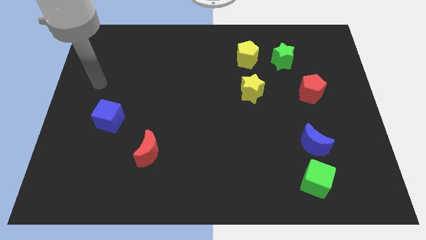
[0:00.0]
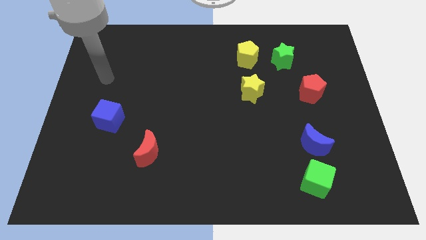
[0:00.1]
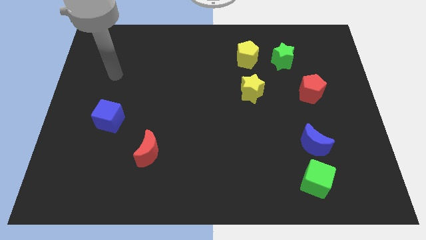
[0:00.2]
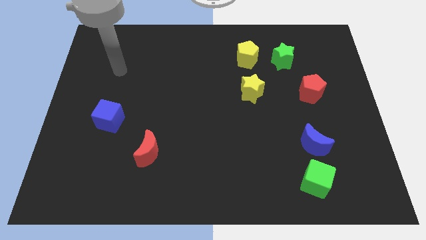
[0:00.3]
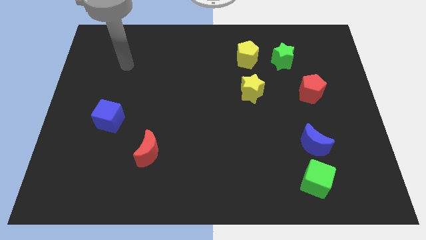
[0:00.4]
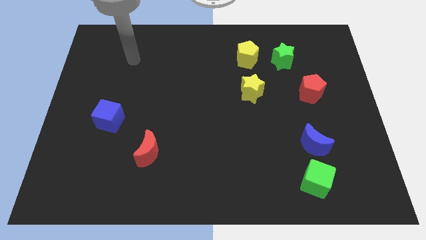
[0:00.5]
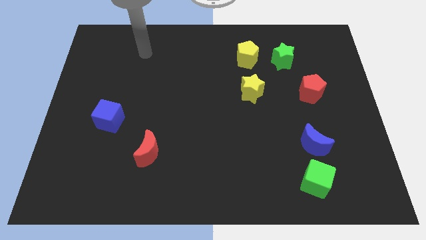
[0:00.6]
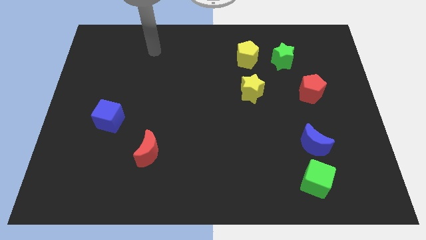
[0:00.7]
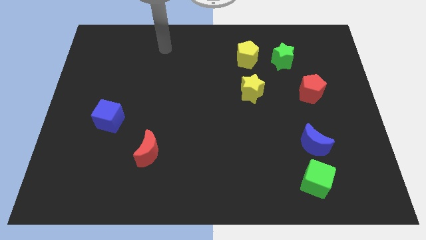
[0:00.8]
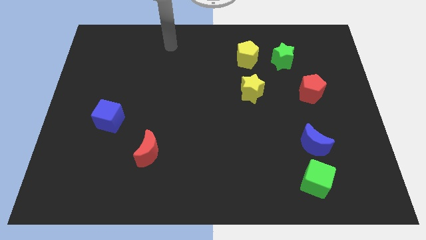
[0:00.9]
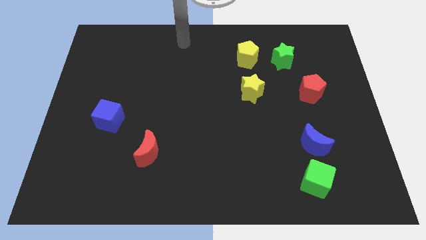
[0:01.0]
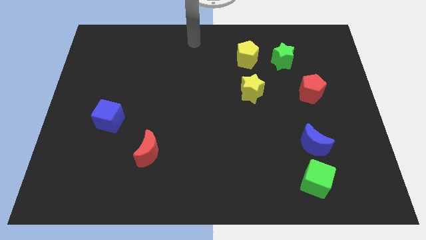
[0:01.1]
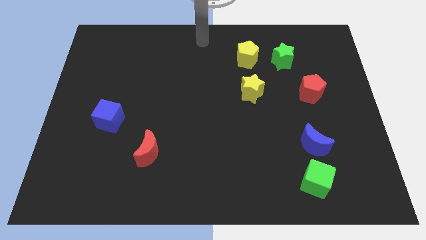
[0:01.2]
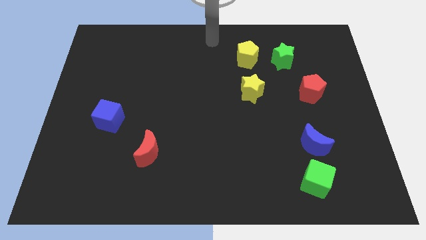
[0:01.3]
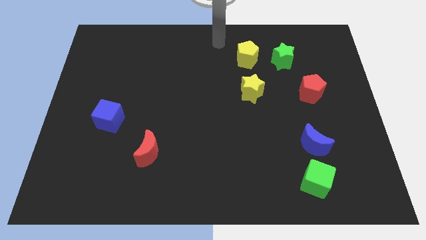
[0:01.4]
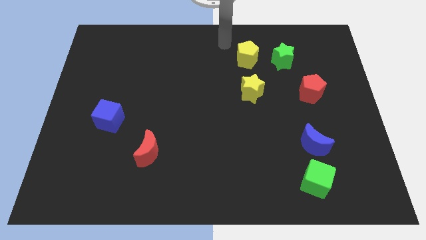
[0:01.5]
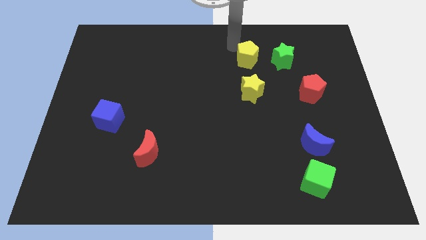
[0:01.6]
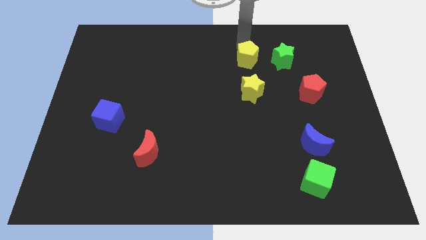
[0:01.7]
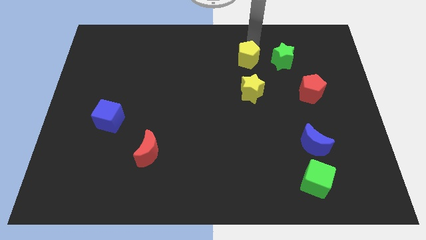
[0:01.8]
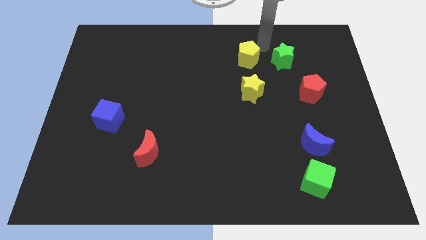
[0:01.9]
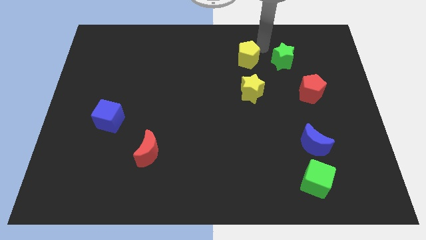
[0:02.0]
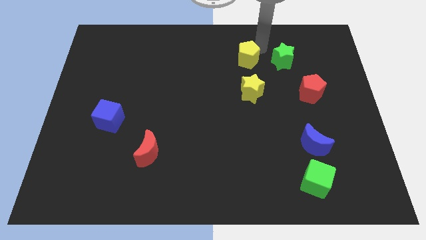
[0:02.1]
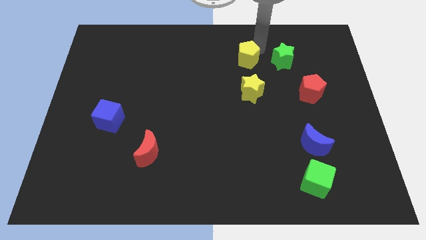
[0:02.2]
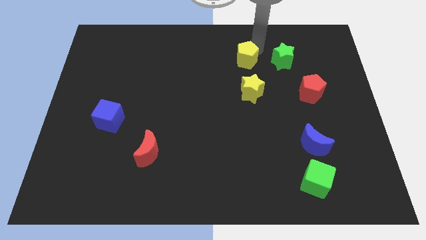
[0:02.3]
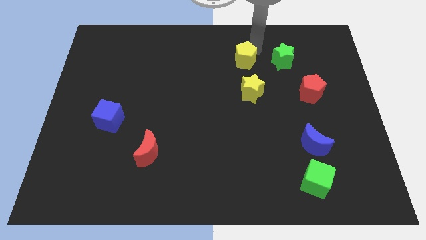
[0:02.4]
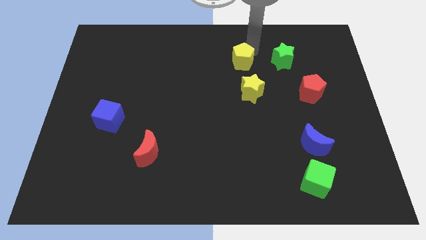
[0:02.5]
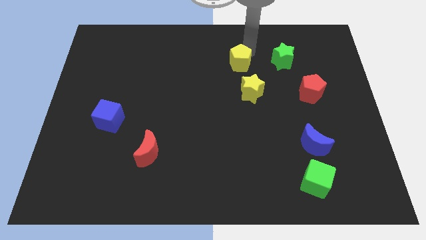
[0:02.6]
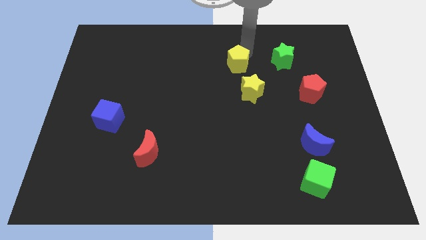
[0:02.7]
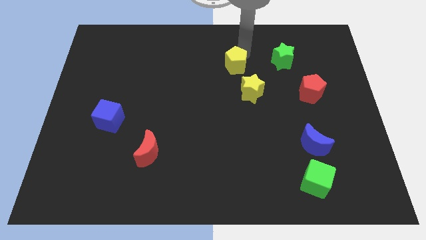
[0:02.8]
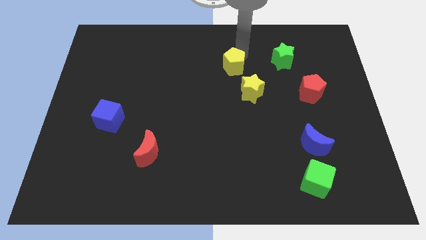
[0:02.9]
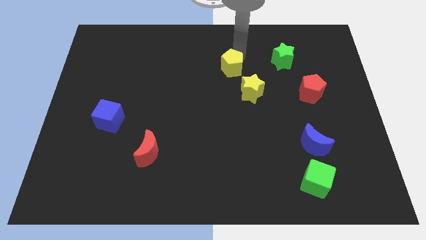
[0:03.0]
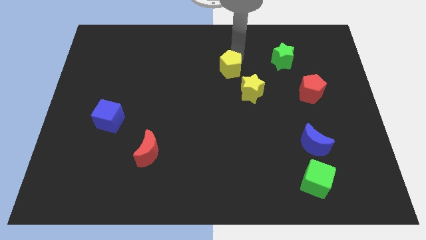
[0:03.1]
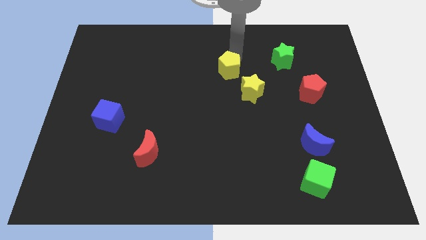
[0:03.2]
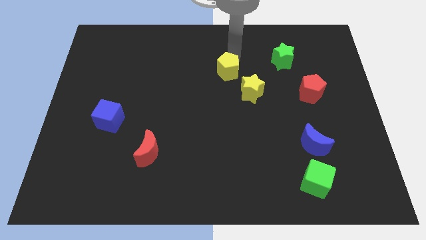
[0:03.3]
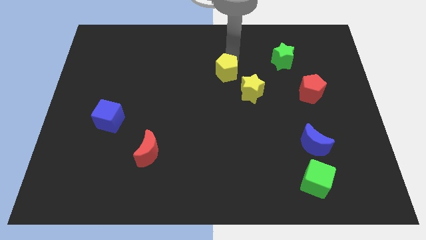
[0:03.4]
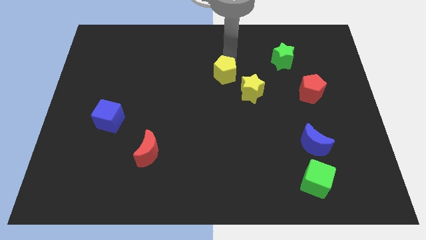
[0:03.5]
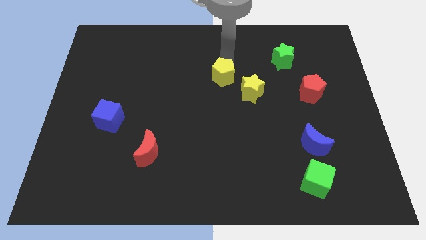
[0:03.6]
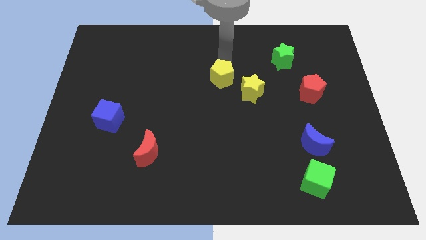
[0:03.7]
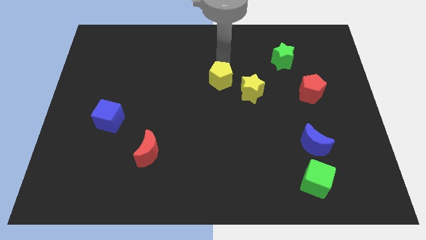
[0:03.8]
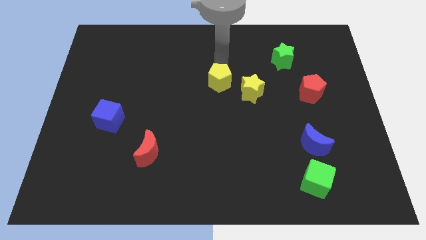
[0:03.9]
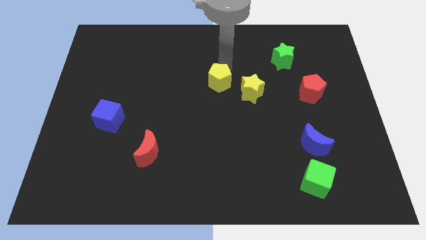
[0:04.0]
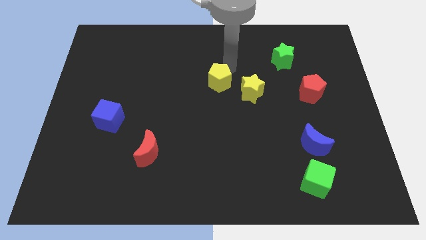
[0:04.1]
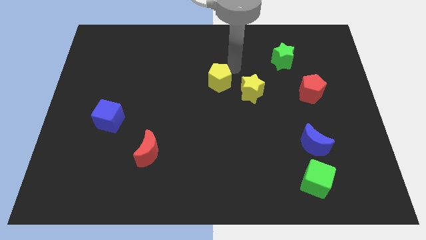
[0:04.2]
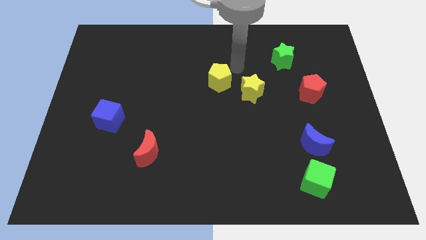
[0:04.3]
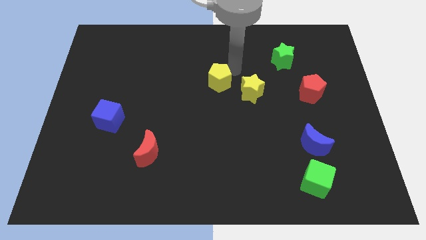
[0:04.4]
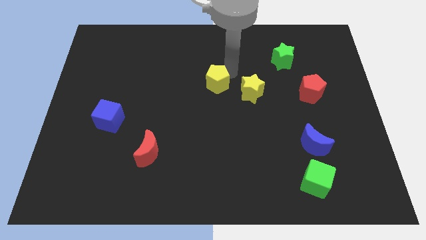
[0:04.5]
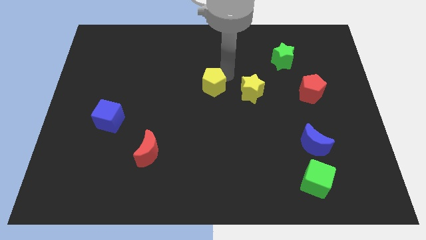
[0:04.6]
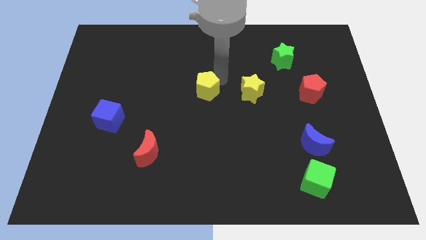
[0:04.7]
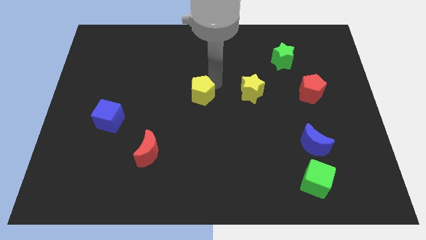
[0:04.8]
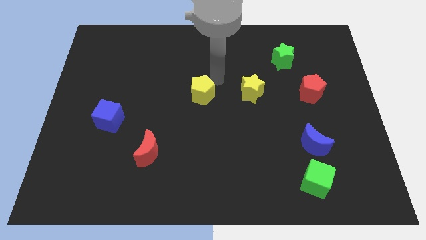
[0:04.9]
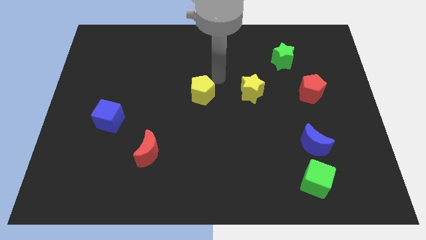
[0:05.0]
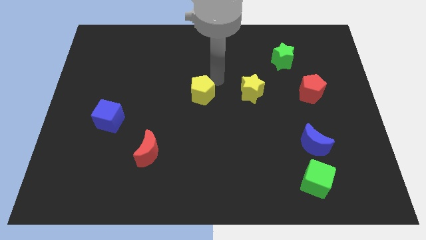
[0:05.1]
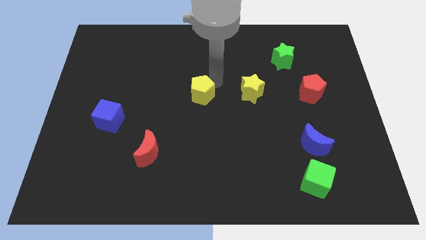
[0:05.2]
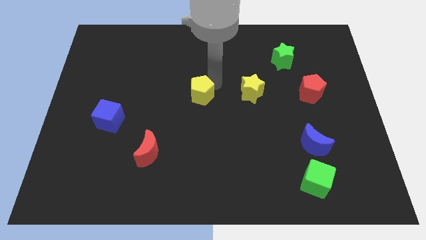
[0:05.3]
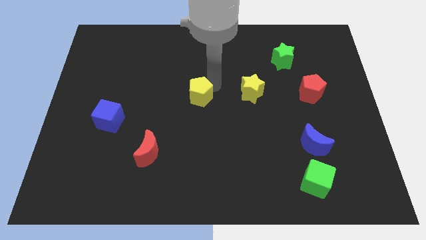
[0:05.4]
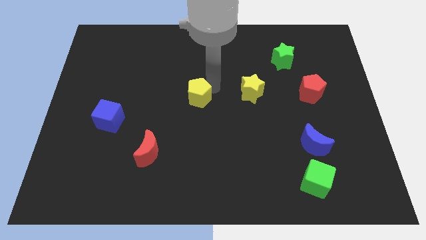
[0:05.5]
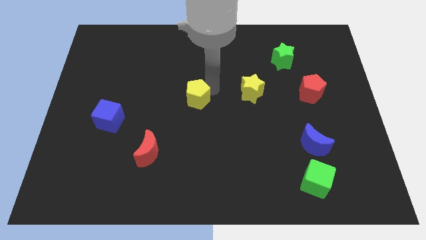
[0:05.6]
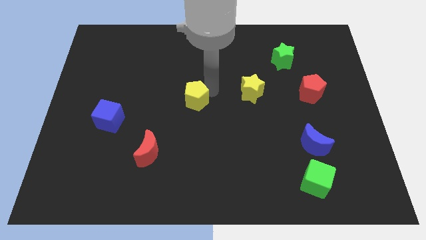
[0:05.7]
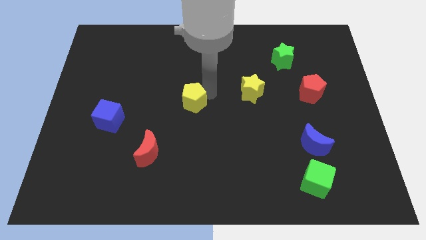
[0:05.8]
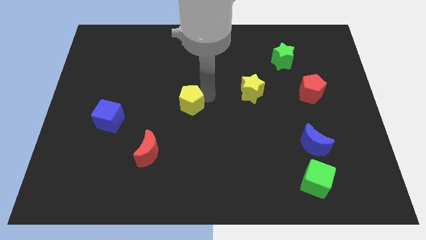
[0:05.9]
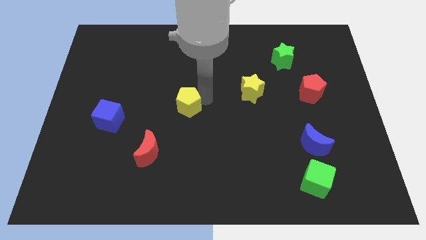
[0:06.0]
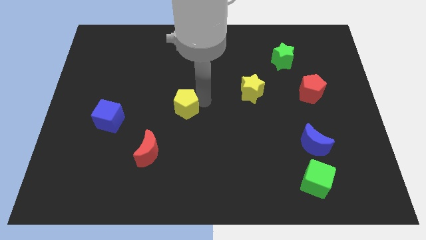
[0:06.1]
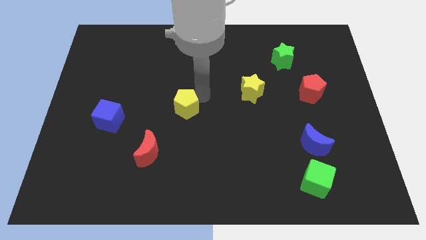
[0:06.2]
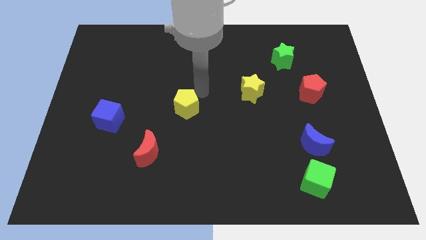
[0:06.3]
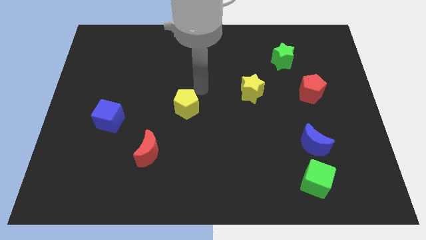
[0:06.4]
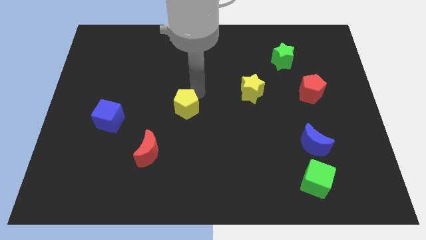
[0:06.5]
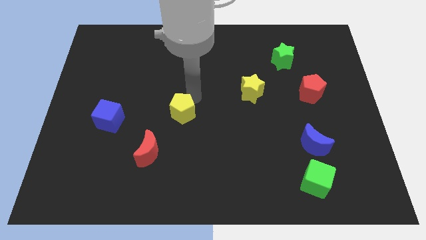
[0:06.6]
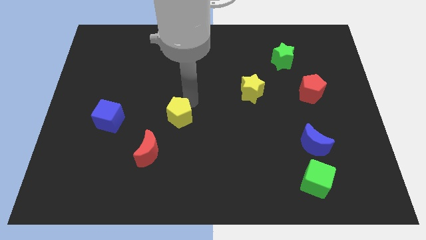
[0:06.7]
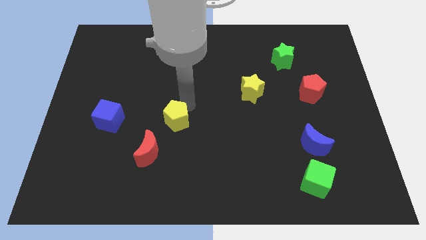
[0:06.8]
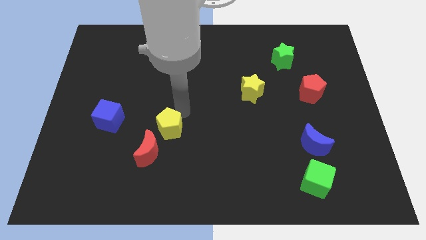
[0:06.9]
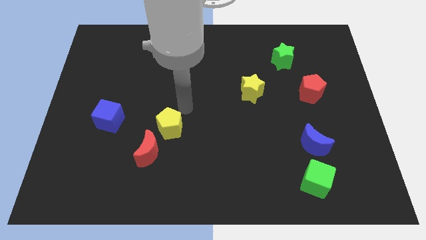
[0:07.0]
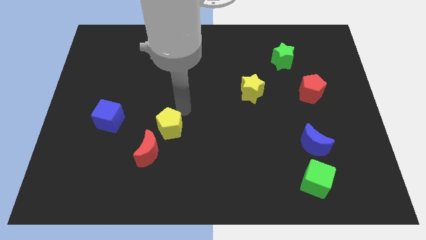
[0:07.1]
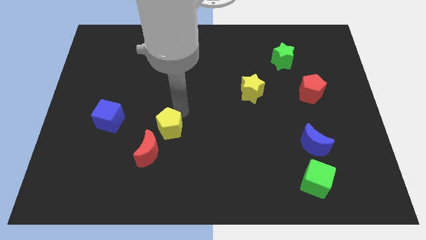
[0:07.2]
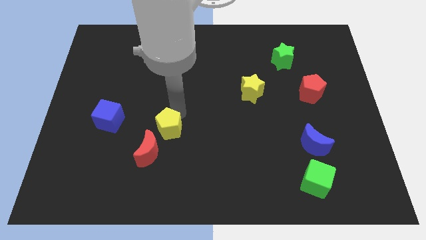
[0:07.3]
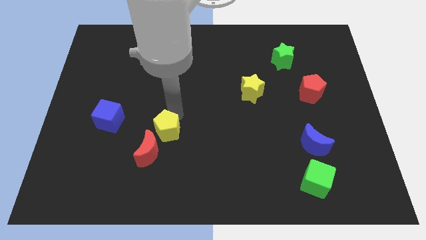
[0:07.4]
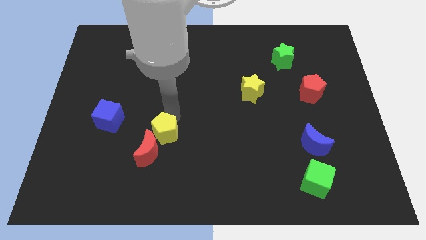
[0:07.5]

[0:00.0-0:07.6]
slide the yellow pentagon towards the red moon
